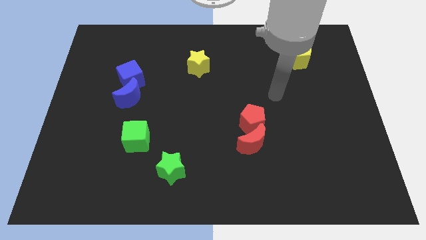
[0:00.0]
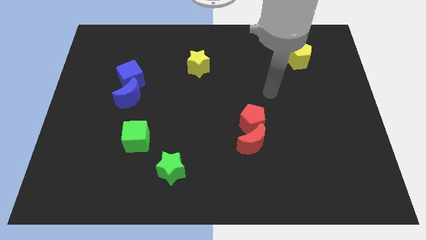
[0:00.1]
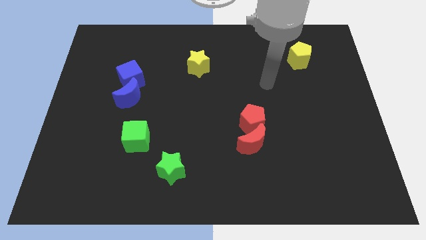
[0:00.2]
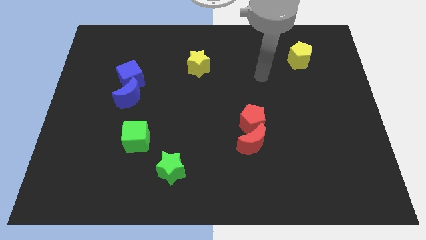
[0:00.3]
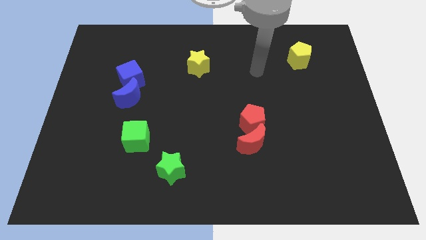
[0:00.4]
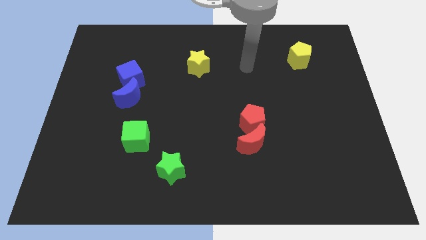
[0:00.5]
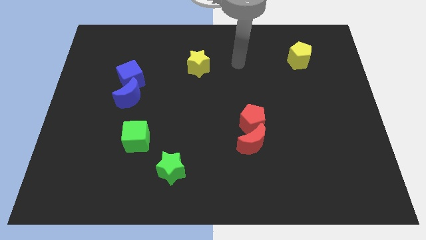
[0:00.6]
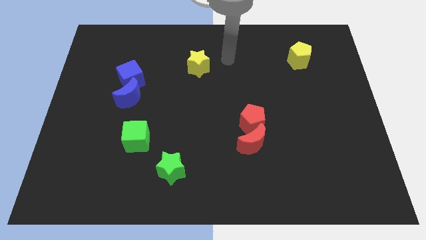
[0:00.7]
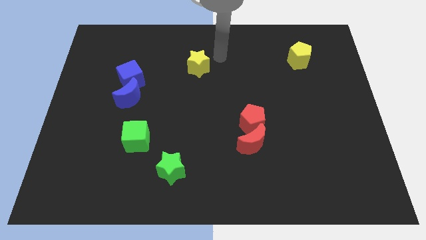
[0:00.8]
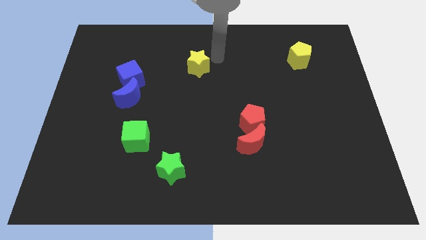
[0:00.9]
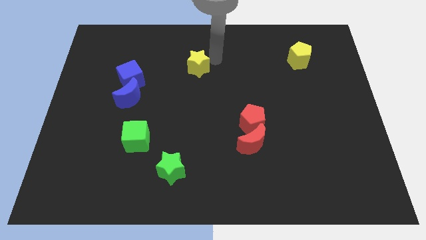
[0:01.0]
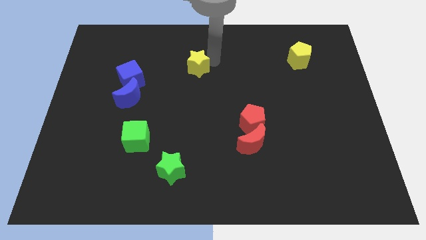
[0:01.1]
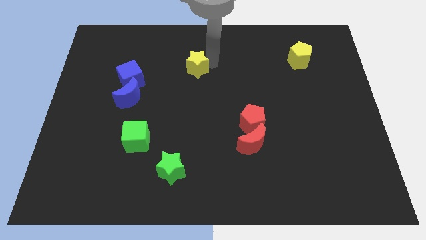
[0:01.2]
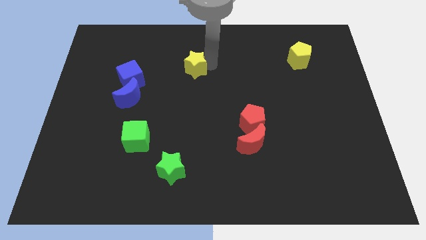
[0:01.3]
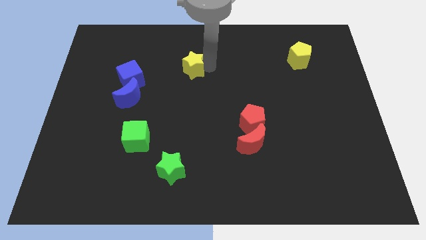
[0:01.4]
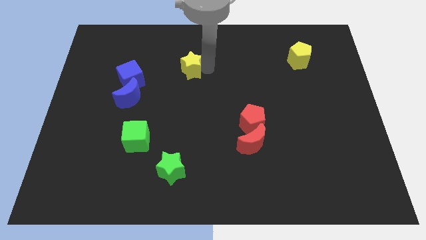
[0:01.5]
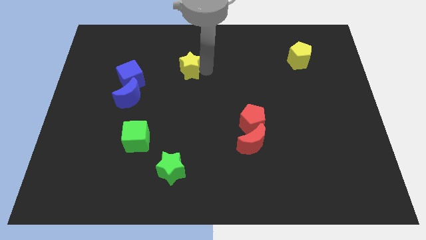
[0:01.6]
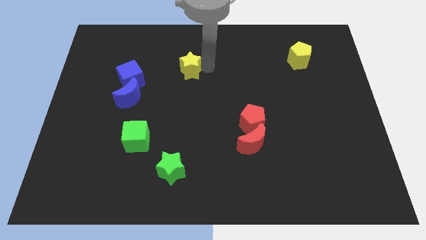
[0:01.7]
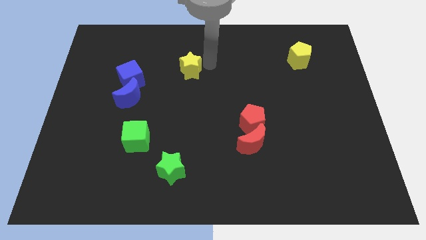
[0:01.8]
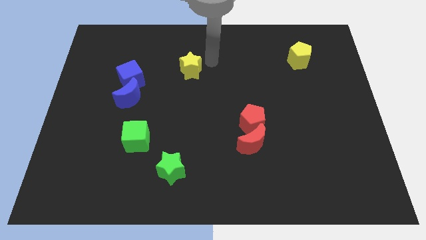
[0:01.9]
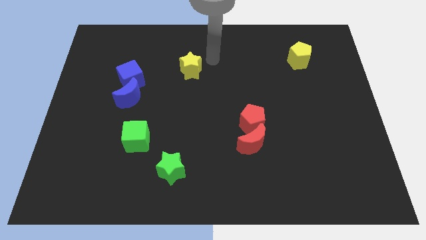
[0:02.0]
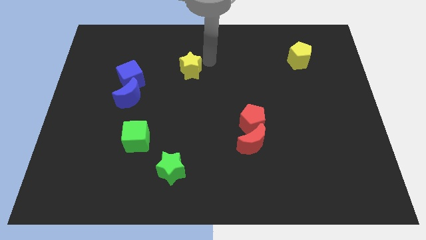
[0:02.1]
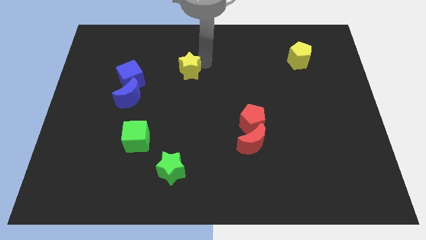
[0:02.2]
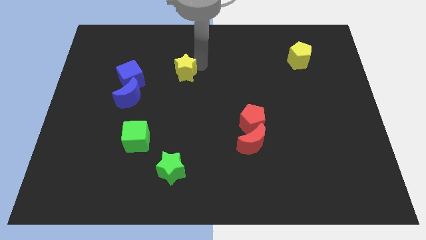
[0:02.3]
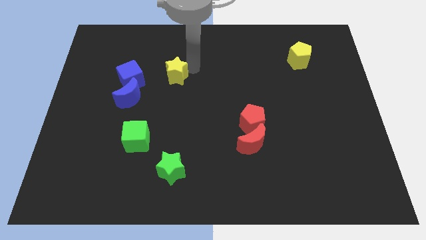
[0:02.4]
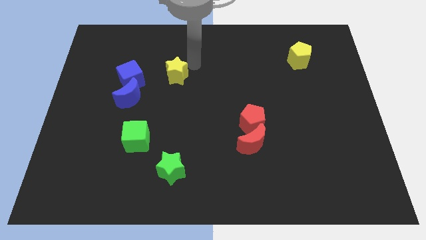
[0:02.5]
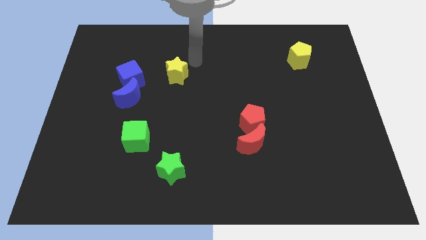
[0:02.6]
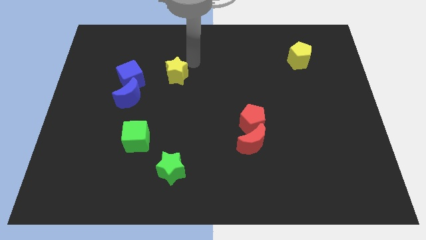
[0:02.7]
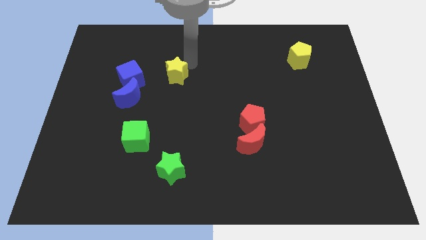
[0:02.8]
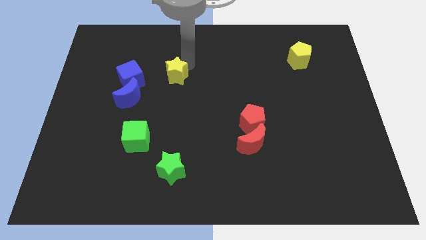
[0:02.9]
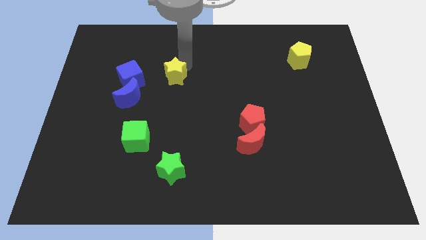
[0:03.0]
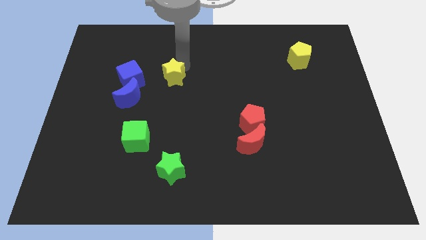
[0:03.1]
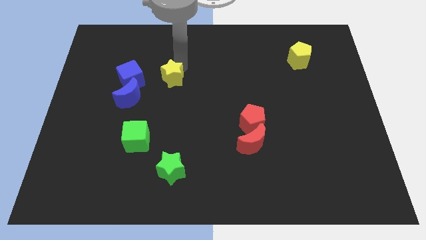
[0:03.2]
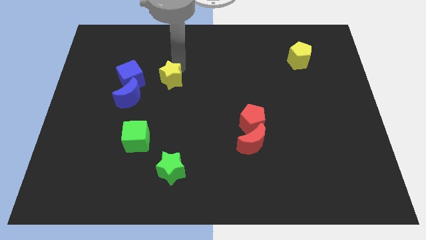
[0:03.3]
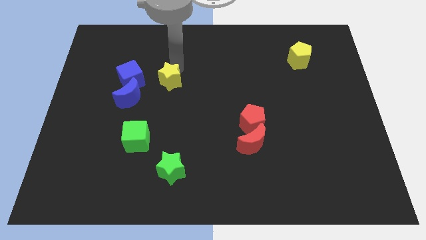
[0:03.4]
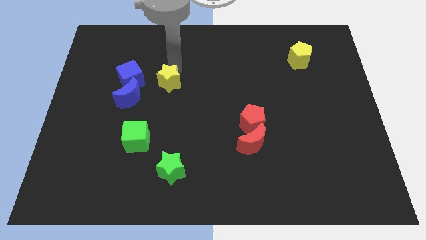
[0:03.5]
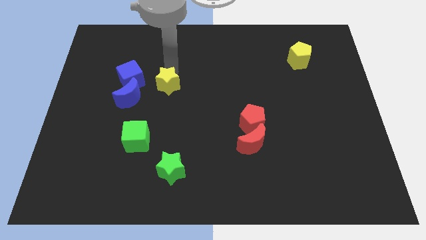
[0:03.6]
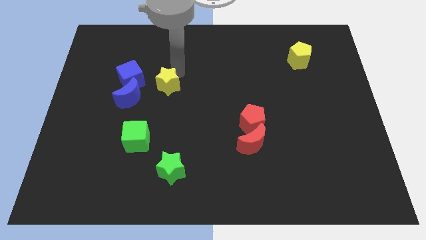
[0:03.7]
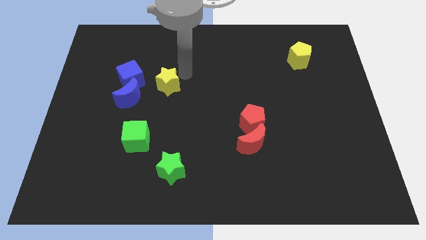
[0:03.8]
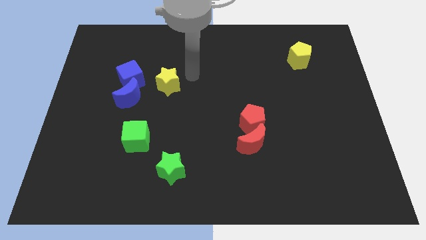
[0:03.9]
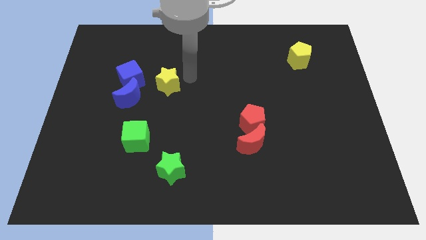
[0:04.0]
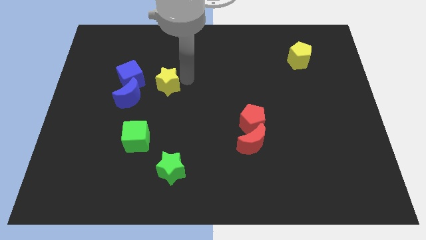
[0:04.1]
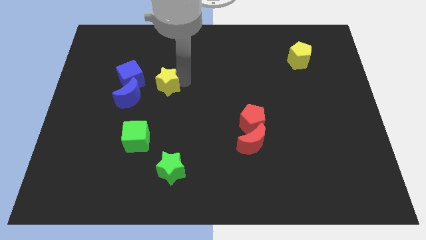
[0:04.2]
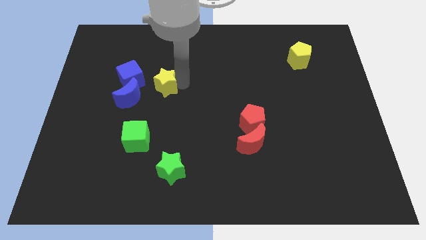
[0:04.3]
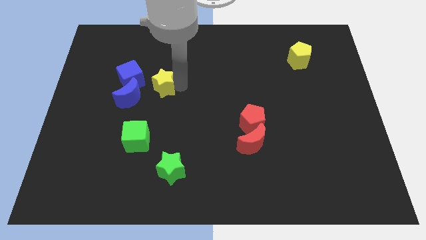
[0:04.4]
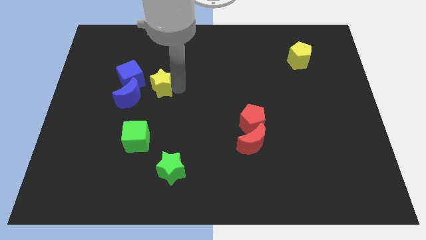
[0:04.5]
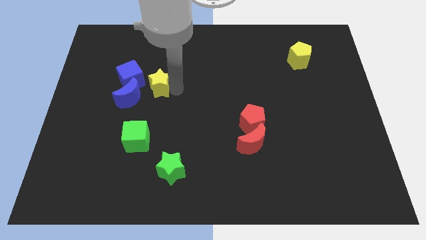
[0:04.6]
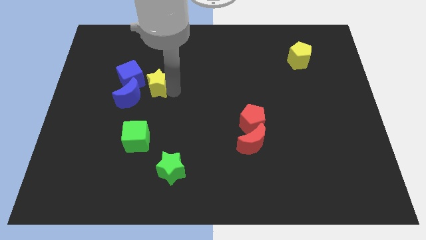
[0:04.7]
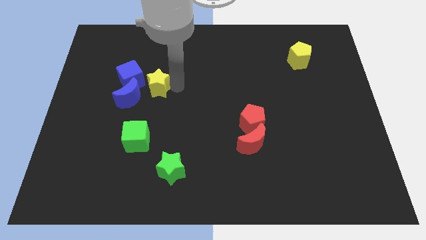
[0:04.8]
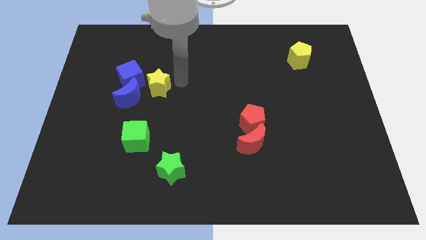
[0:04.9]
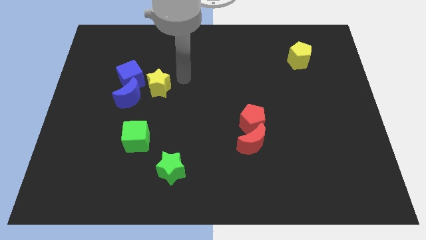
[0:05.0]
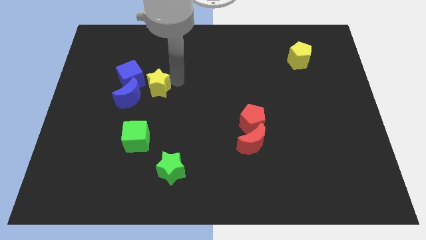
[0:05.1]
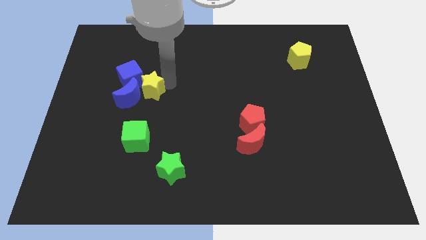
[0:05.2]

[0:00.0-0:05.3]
move the yellow star close to the blue moon

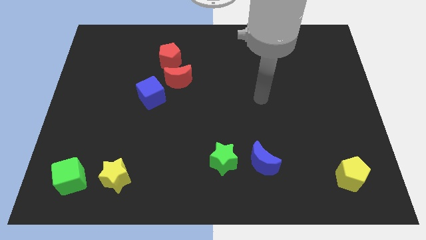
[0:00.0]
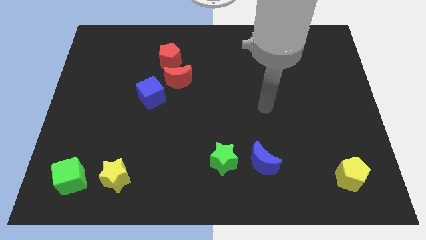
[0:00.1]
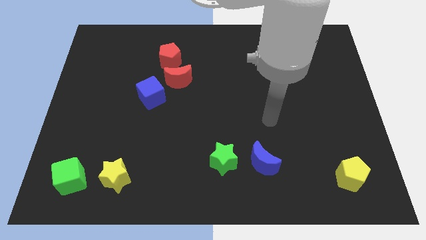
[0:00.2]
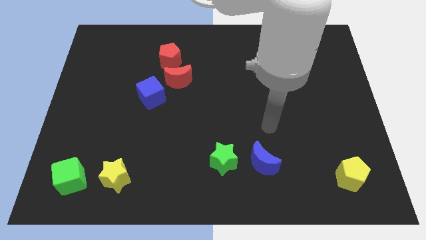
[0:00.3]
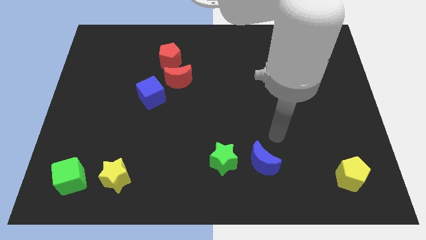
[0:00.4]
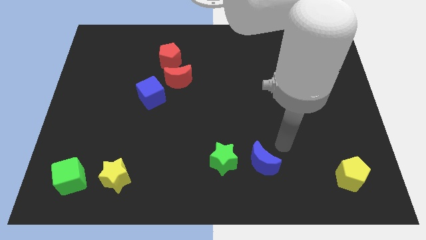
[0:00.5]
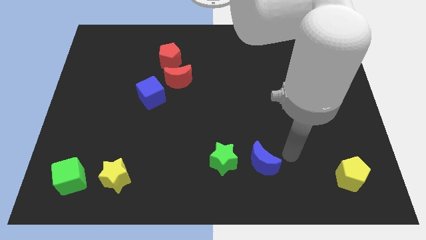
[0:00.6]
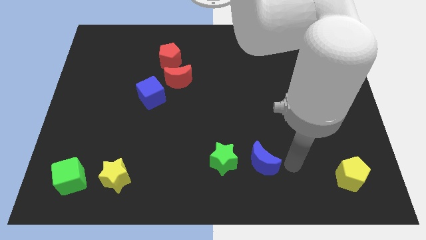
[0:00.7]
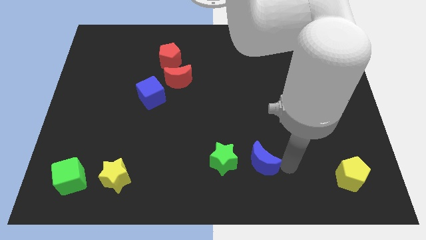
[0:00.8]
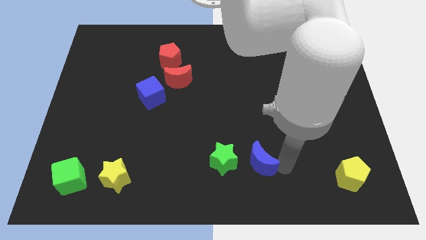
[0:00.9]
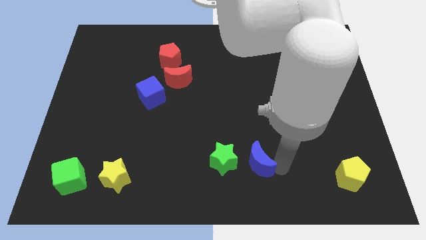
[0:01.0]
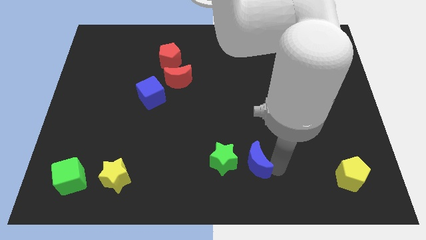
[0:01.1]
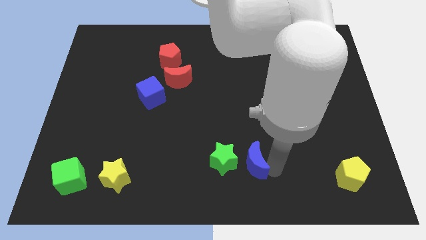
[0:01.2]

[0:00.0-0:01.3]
put the blue moon to the green star

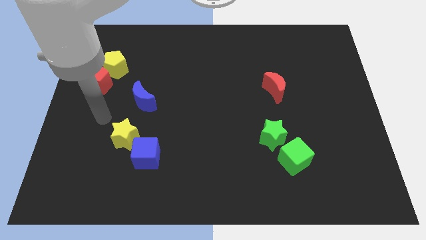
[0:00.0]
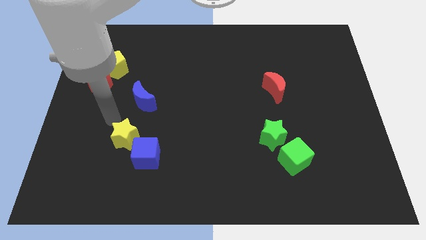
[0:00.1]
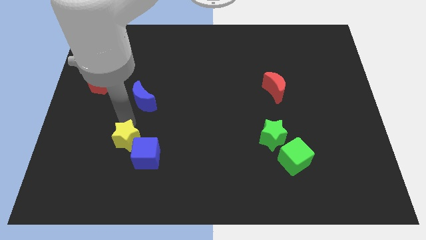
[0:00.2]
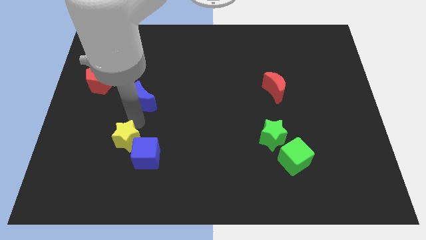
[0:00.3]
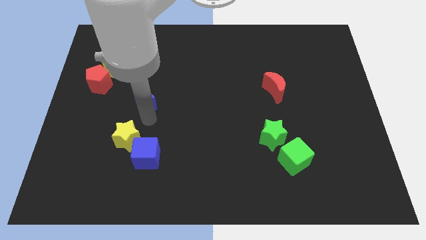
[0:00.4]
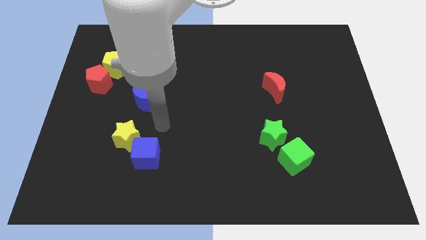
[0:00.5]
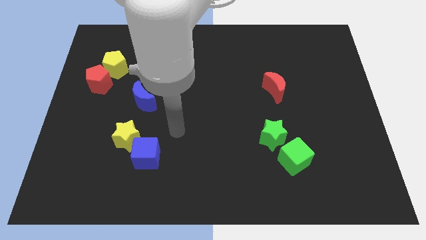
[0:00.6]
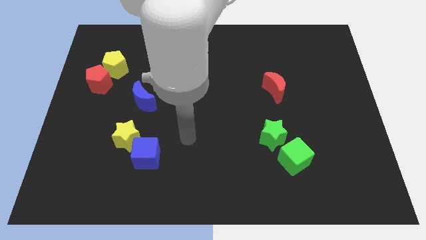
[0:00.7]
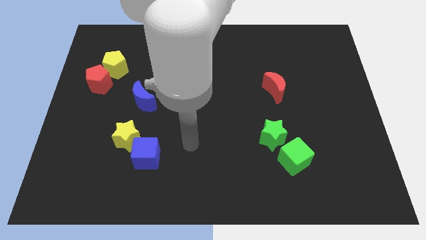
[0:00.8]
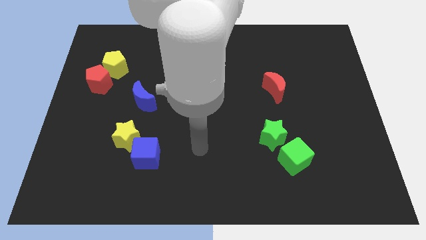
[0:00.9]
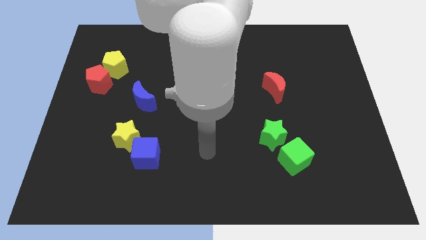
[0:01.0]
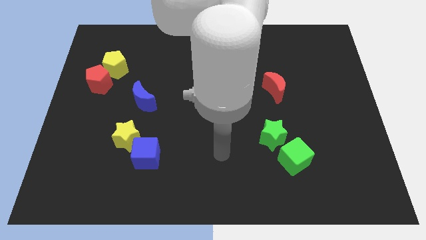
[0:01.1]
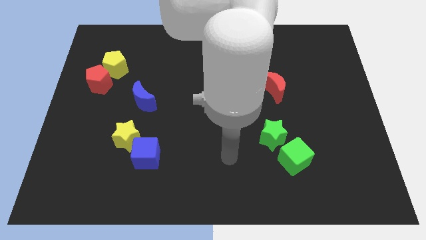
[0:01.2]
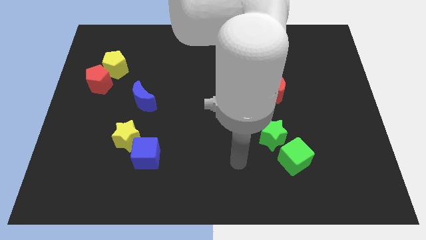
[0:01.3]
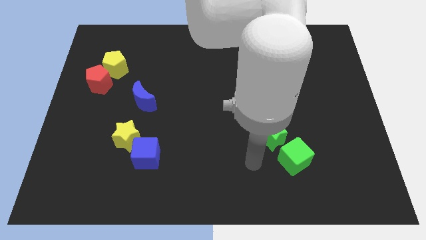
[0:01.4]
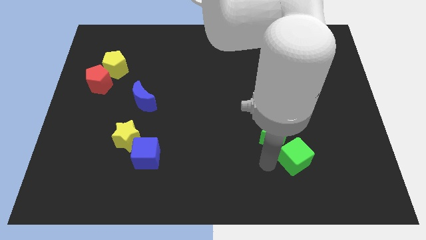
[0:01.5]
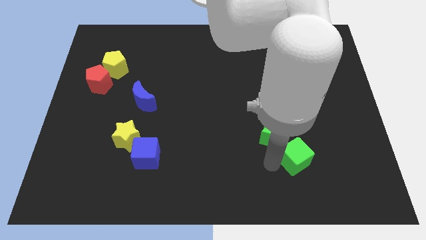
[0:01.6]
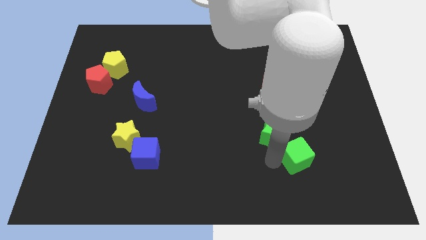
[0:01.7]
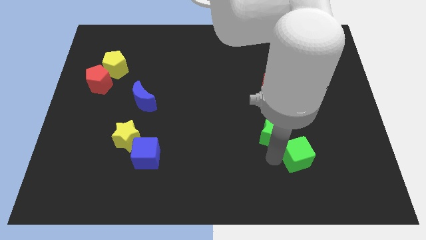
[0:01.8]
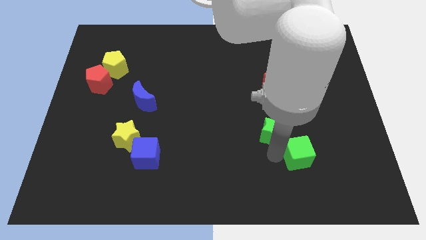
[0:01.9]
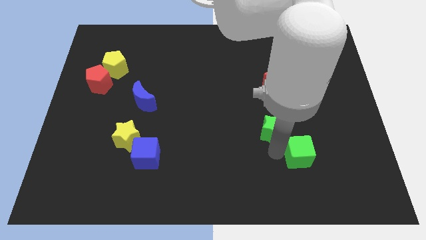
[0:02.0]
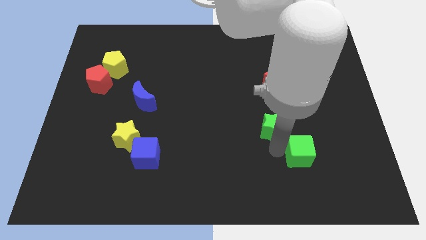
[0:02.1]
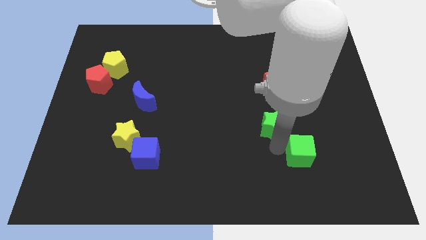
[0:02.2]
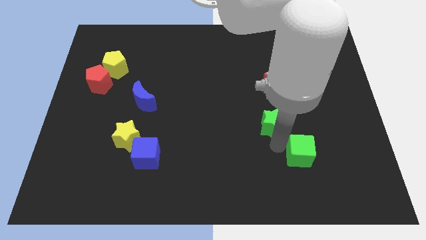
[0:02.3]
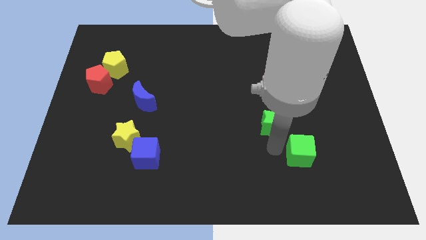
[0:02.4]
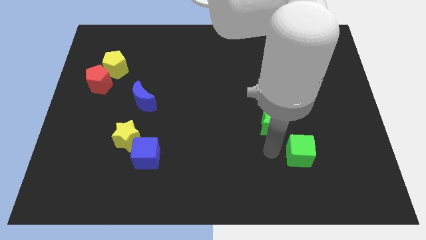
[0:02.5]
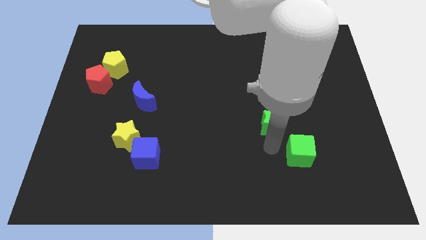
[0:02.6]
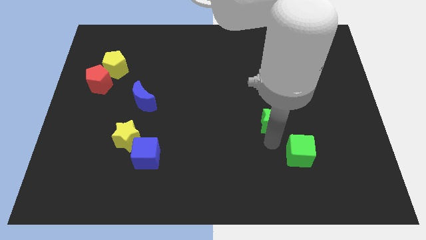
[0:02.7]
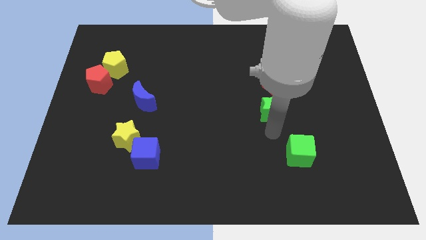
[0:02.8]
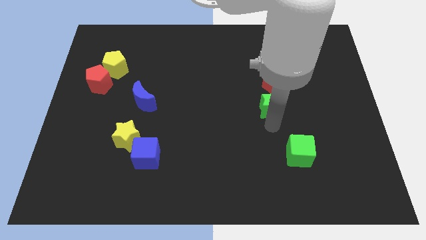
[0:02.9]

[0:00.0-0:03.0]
push the green star towards the red moon
